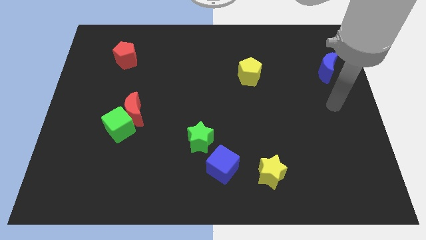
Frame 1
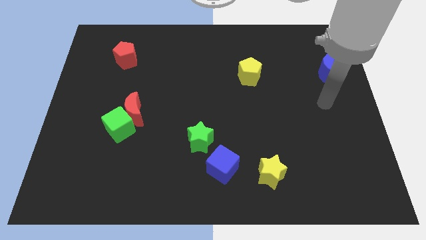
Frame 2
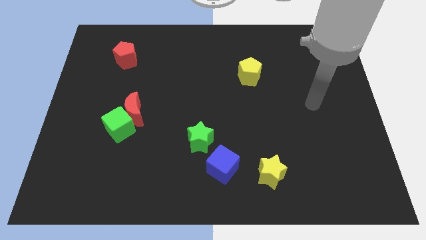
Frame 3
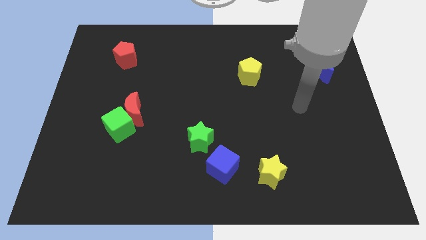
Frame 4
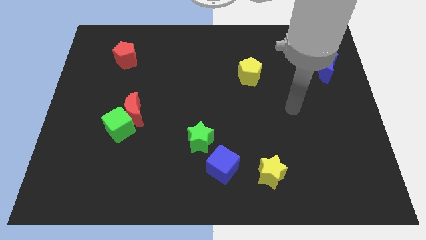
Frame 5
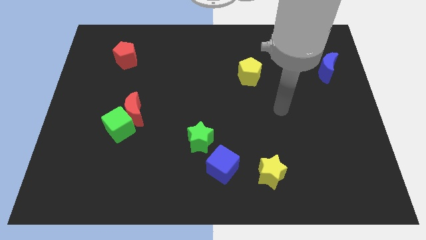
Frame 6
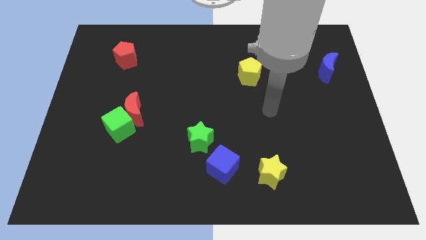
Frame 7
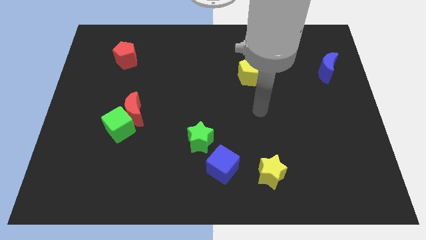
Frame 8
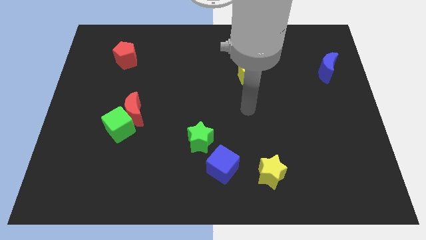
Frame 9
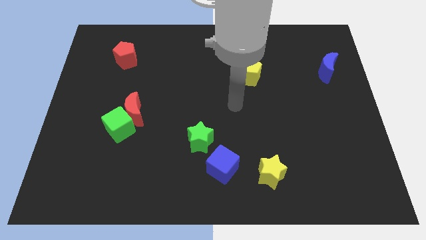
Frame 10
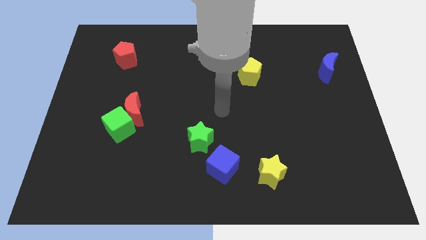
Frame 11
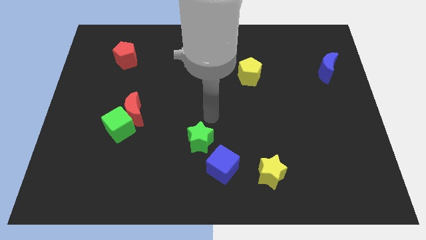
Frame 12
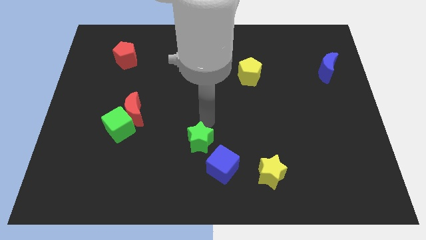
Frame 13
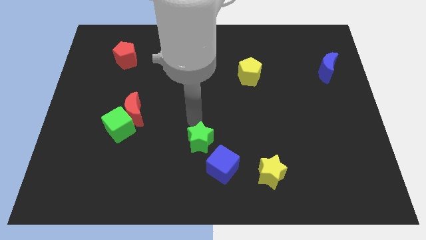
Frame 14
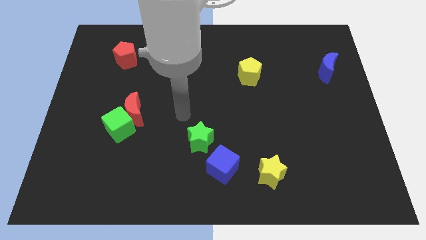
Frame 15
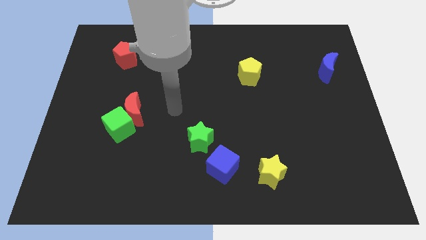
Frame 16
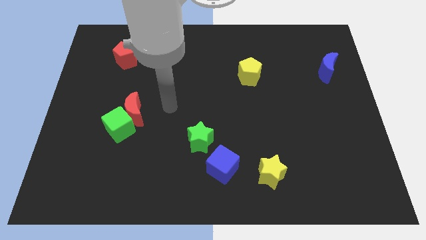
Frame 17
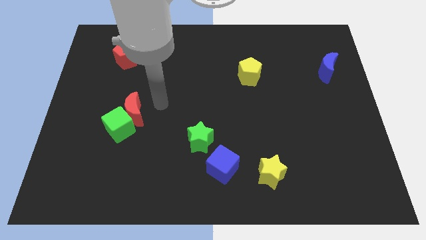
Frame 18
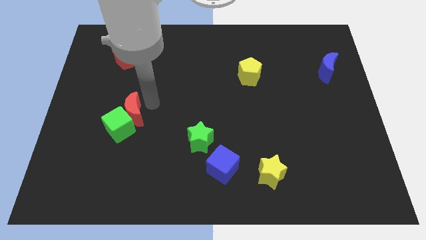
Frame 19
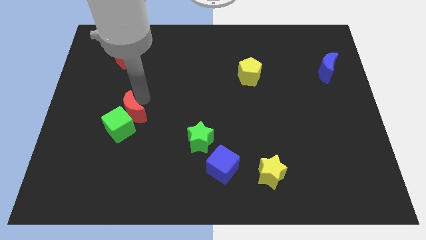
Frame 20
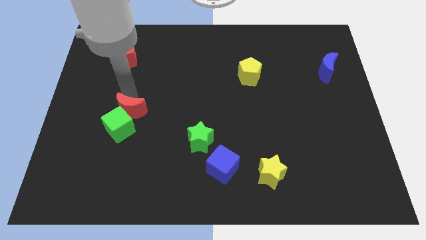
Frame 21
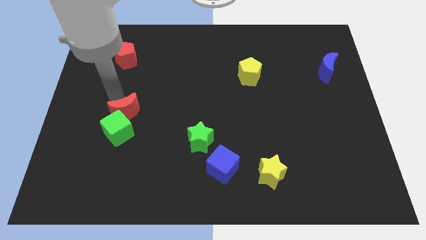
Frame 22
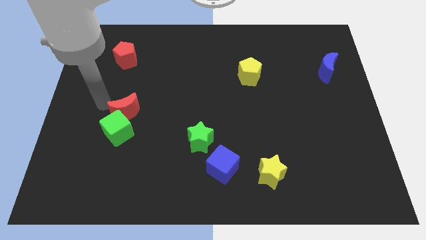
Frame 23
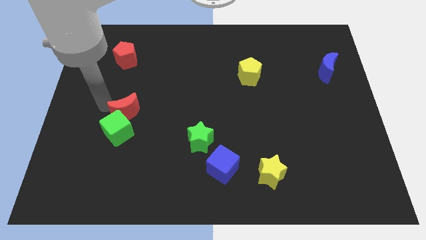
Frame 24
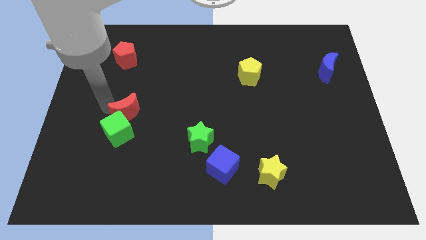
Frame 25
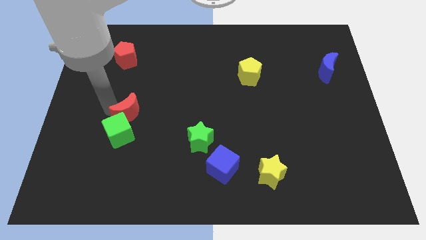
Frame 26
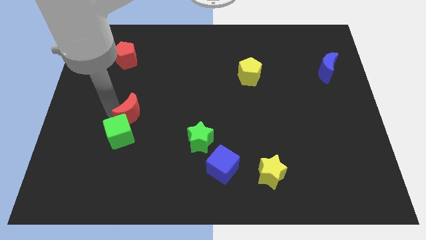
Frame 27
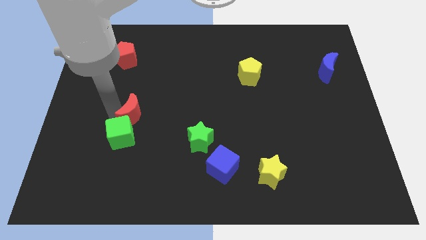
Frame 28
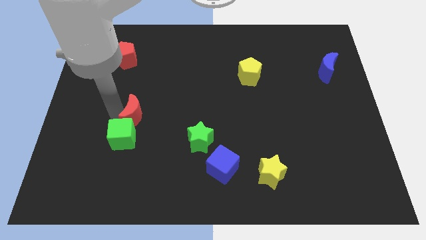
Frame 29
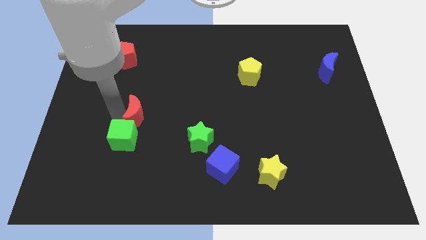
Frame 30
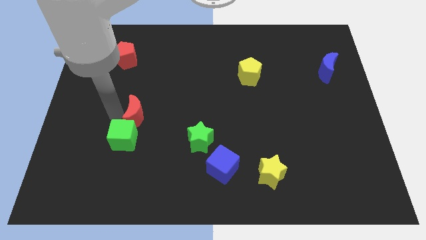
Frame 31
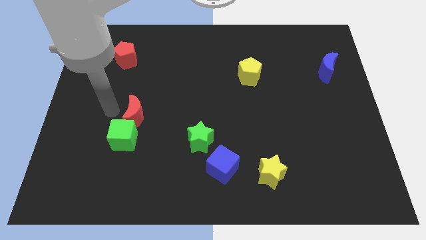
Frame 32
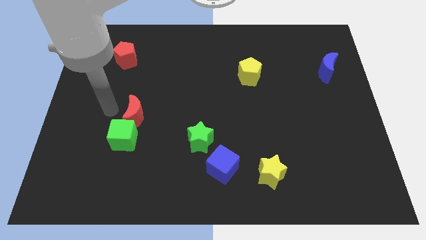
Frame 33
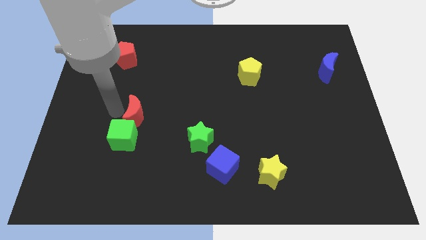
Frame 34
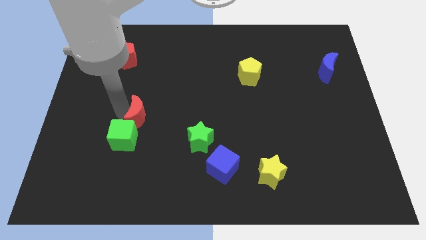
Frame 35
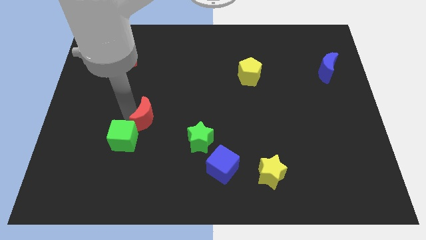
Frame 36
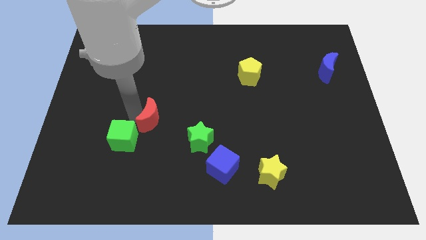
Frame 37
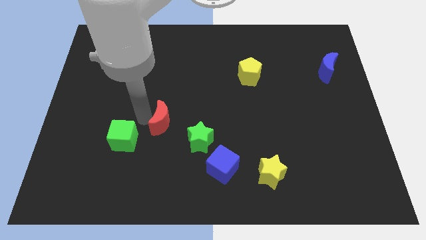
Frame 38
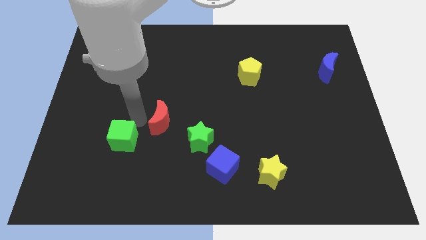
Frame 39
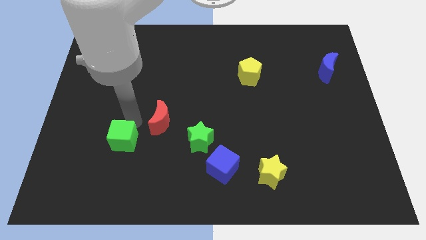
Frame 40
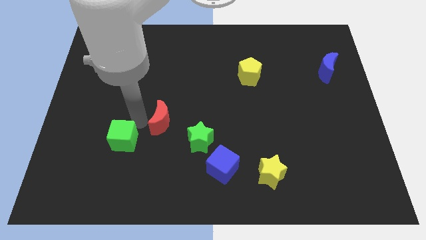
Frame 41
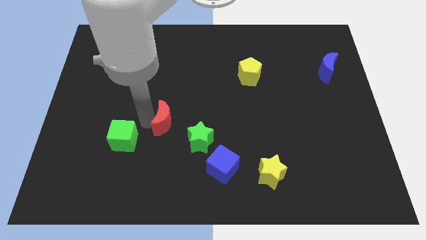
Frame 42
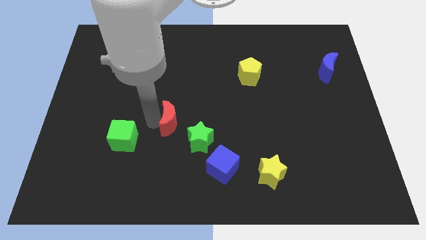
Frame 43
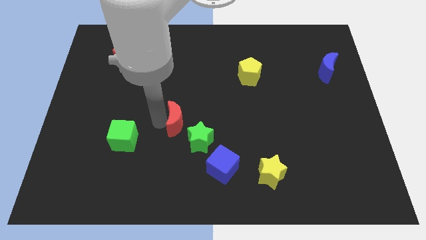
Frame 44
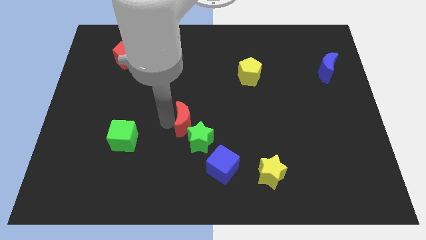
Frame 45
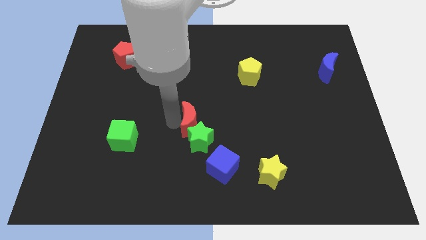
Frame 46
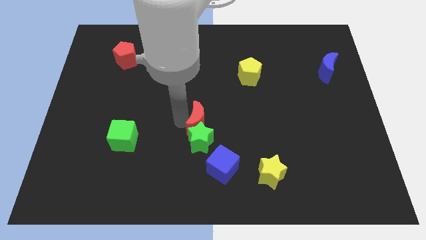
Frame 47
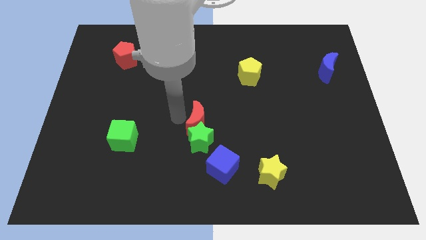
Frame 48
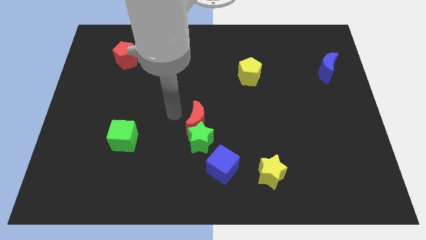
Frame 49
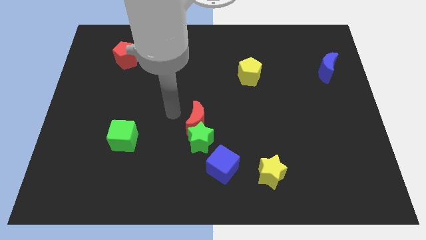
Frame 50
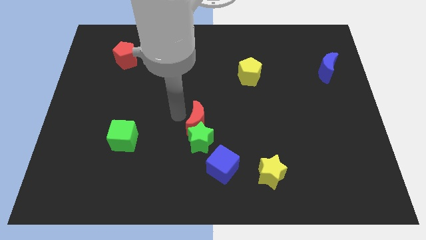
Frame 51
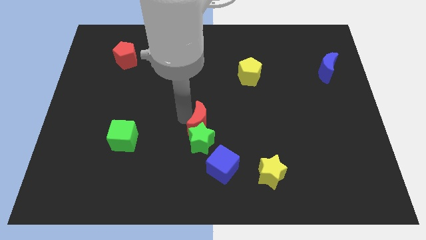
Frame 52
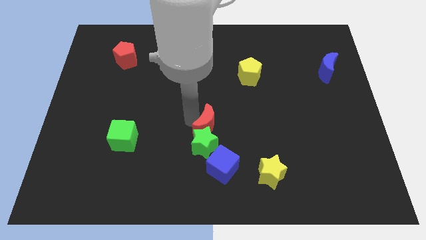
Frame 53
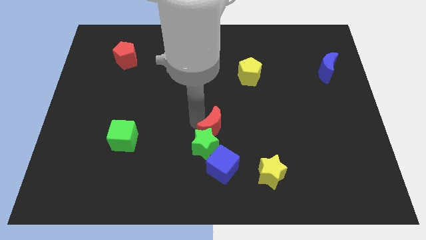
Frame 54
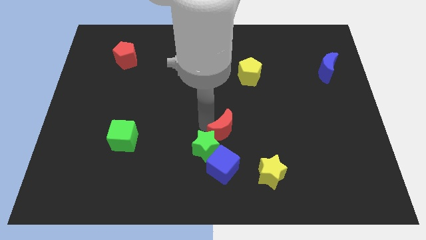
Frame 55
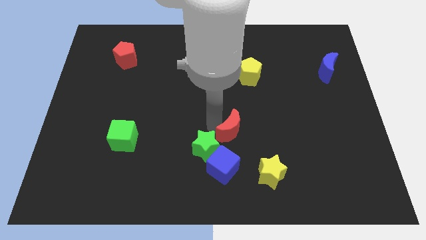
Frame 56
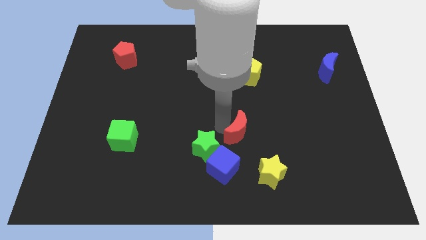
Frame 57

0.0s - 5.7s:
put the red moon to the top right side of the blue cube
